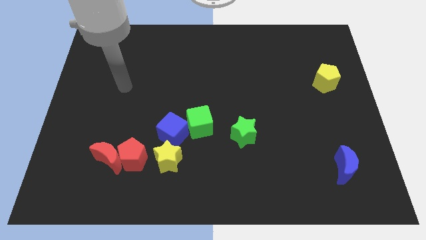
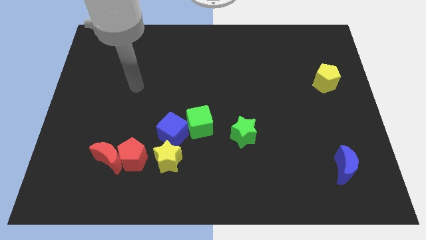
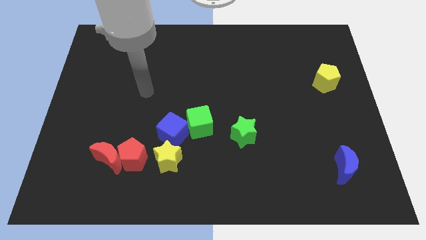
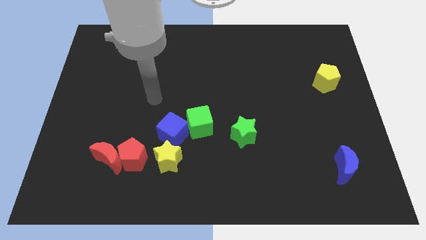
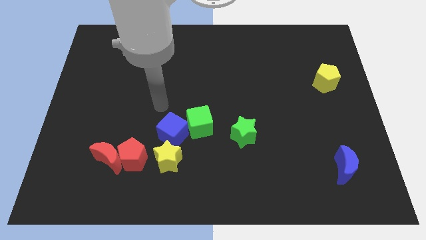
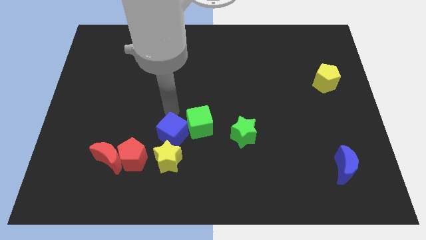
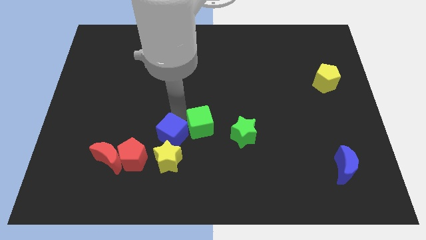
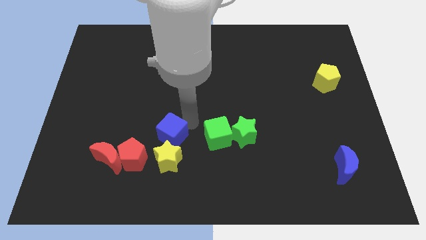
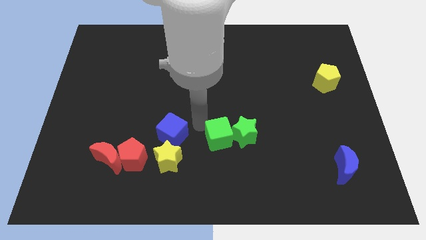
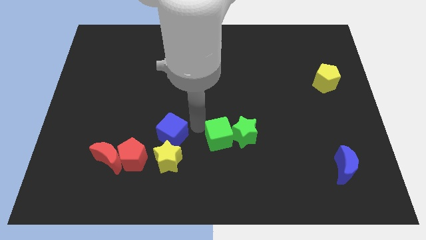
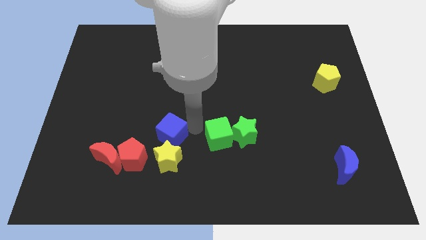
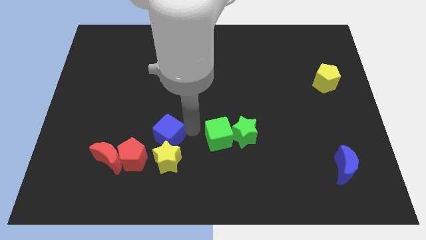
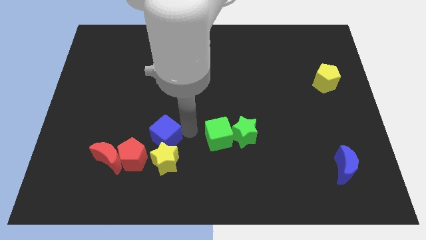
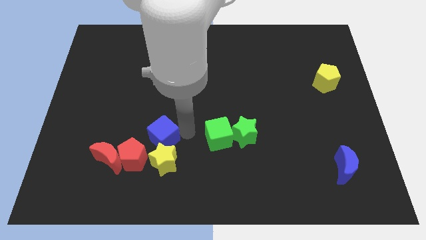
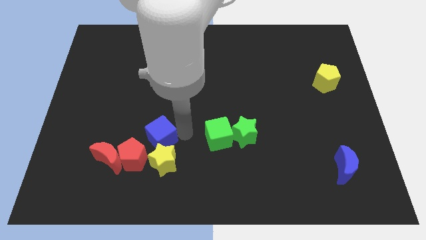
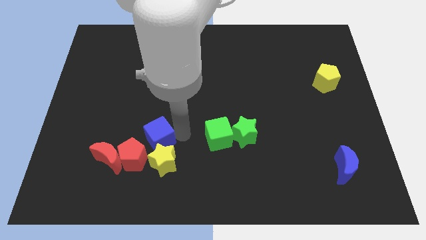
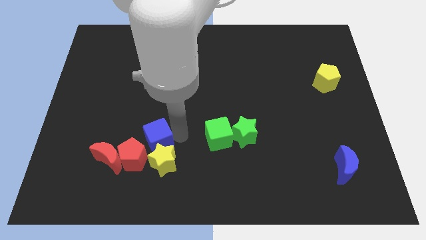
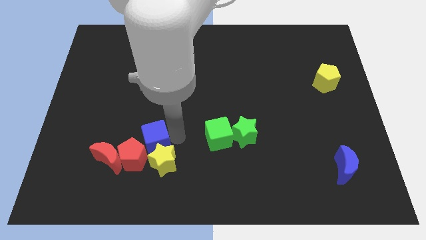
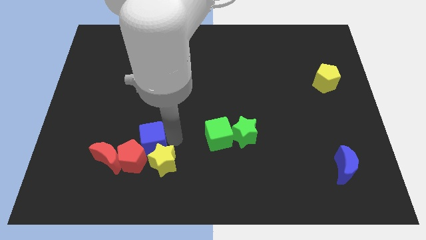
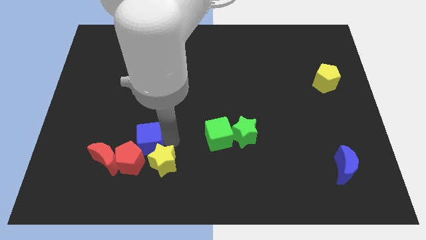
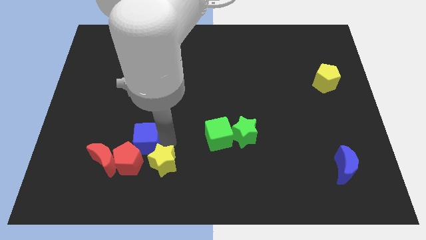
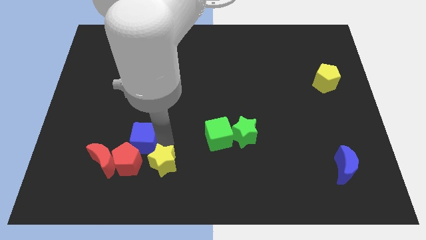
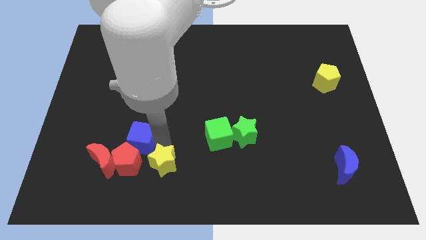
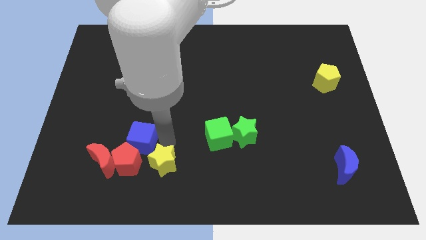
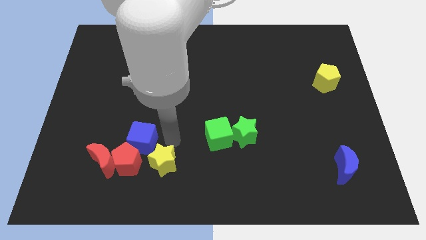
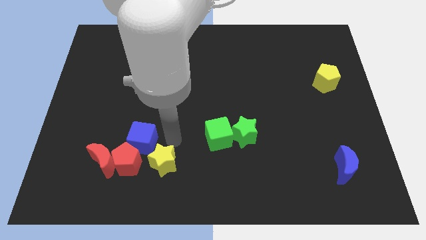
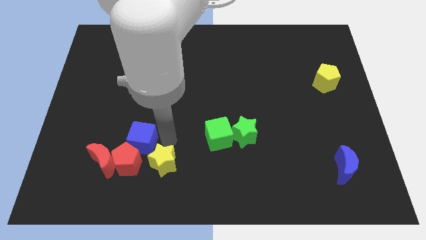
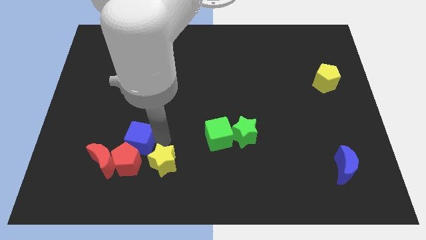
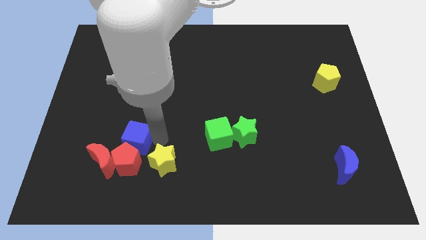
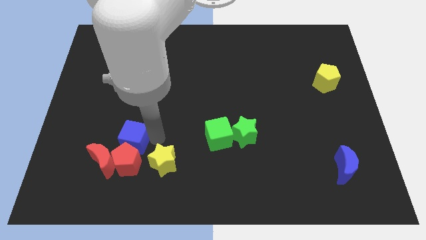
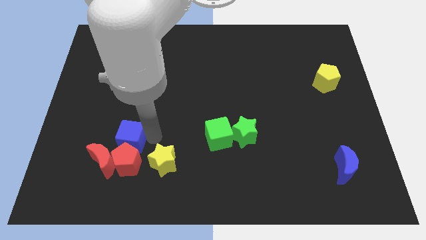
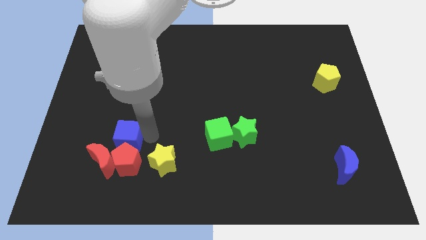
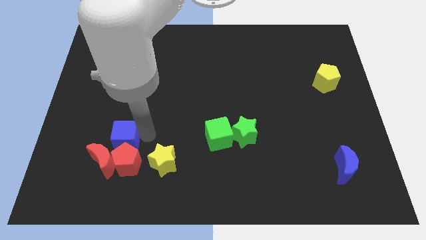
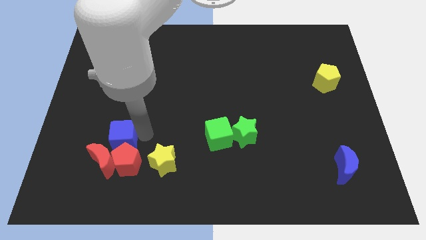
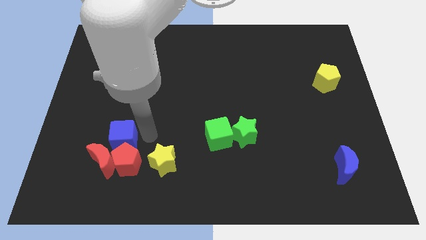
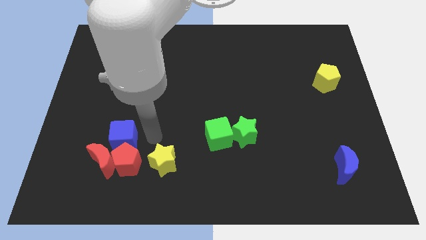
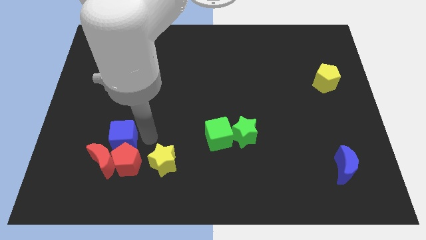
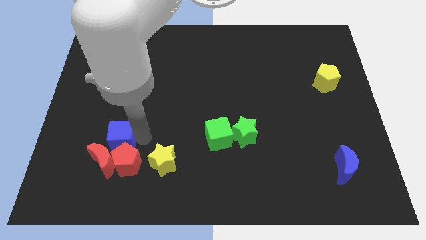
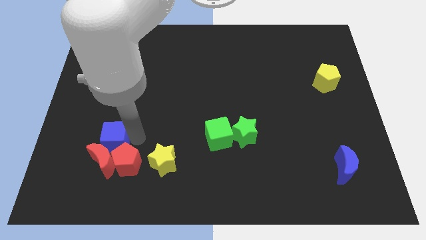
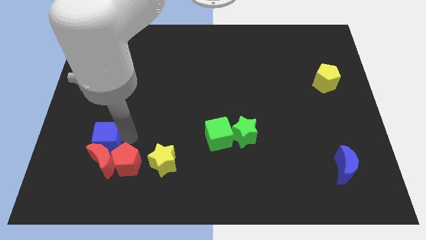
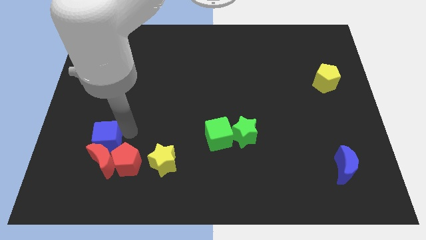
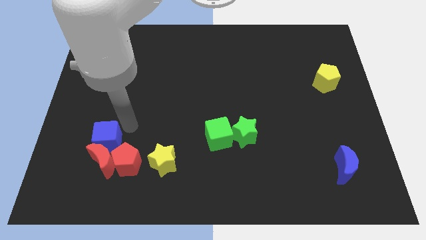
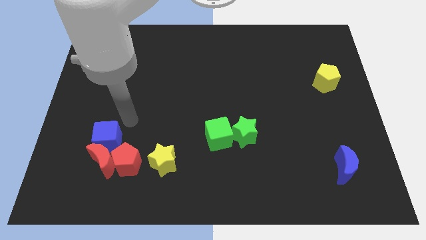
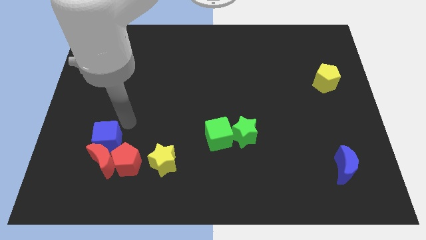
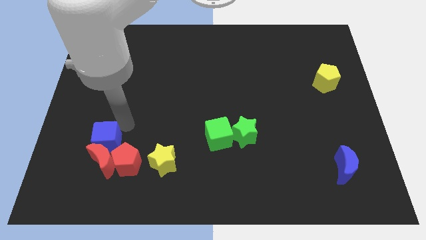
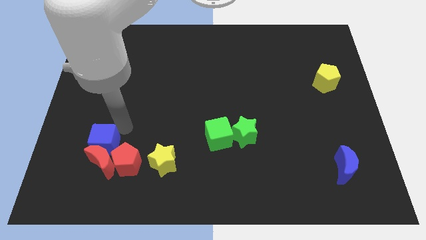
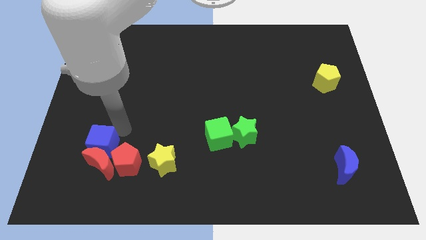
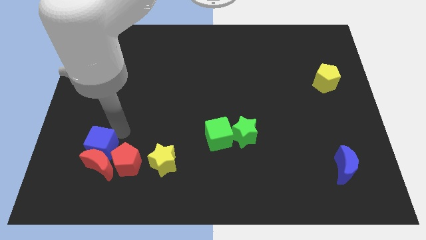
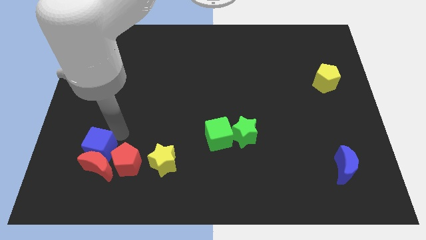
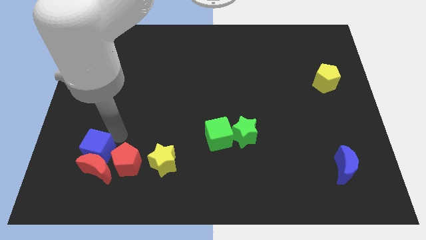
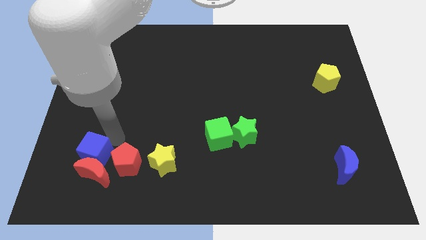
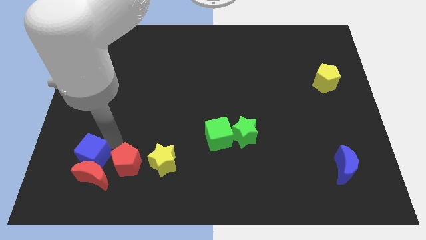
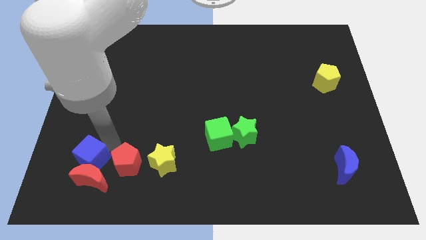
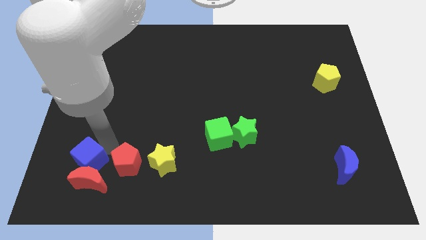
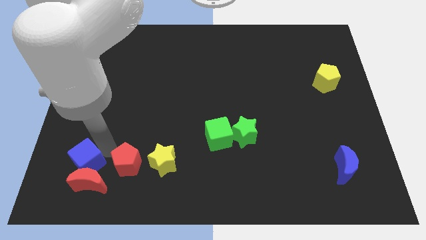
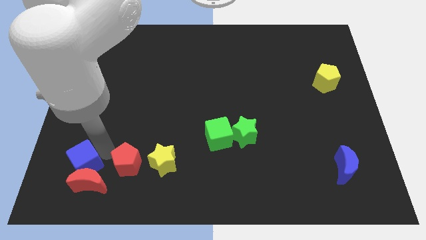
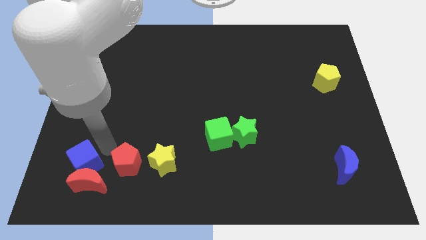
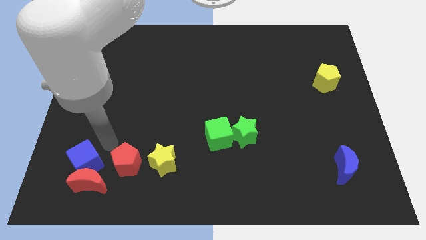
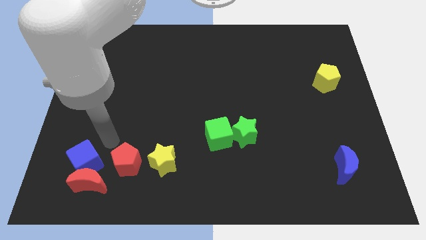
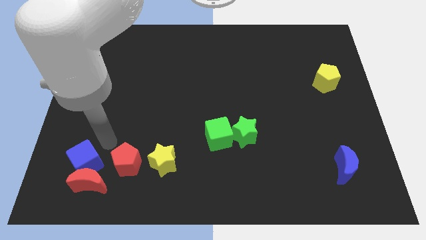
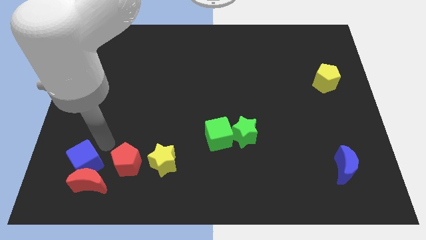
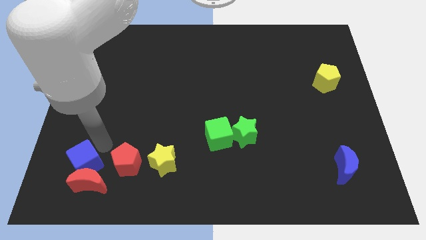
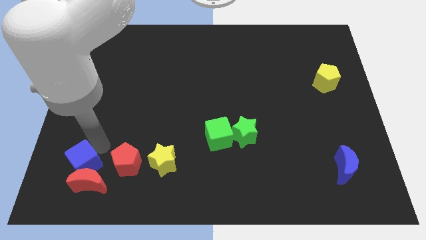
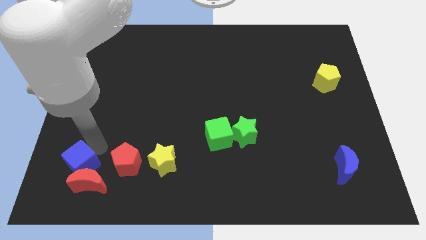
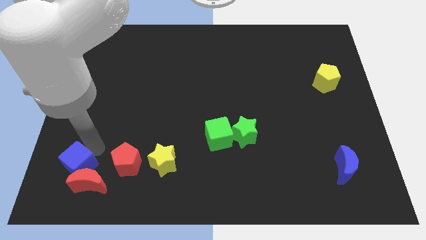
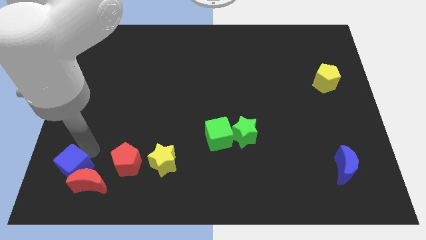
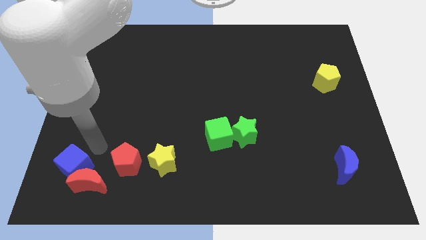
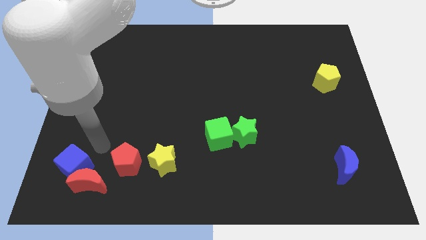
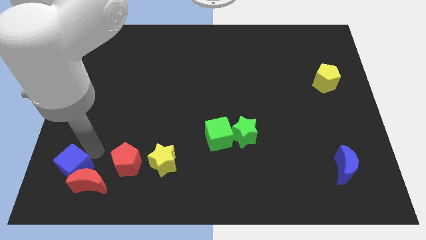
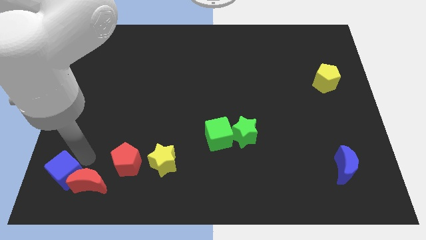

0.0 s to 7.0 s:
move the blue cube to the bottom left of the board
